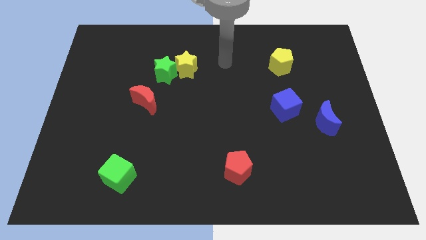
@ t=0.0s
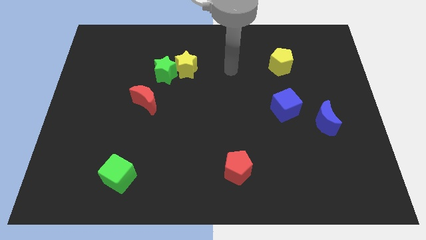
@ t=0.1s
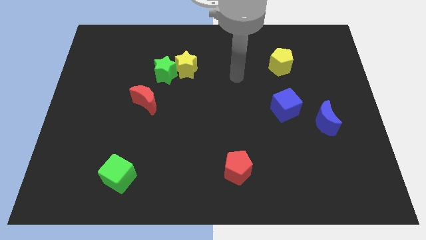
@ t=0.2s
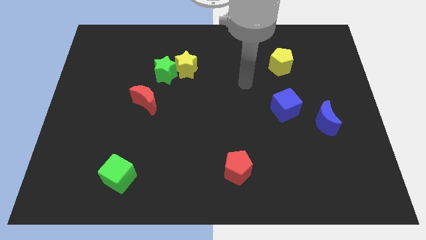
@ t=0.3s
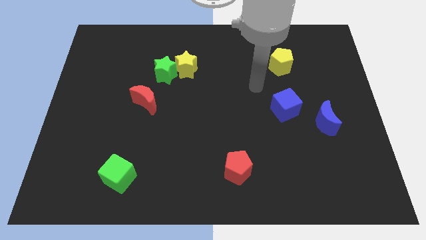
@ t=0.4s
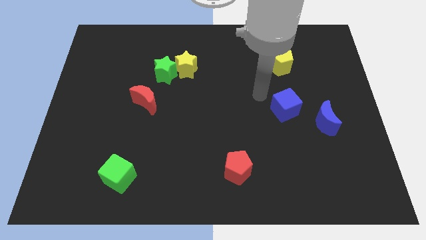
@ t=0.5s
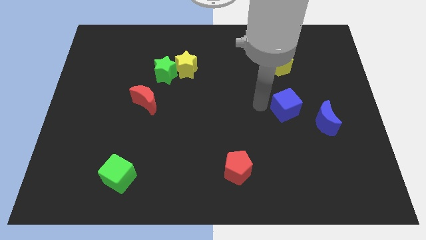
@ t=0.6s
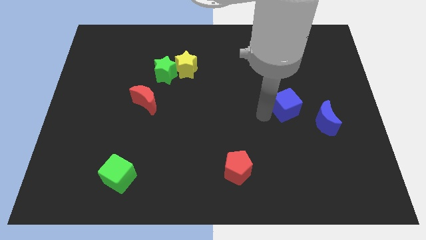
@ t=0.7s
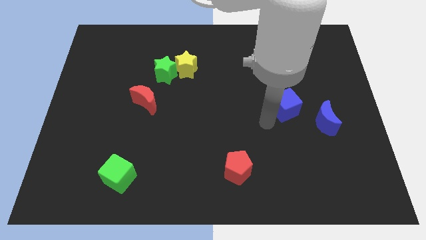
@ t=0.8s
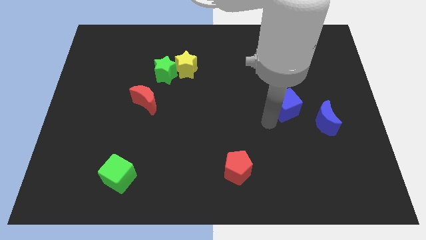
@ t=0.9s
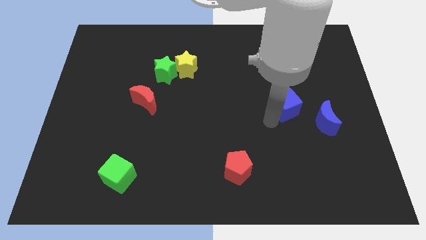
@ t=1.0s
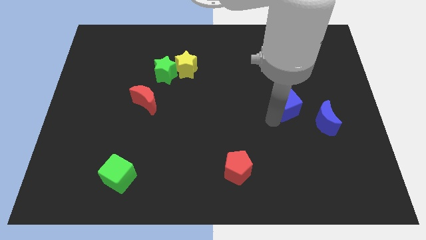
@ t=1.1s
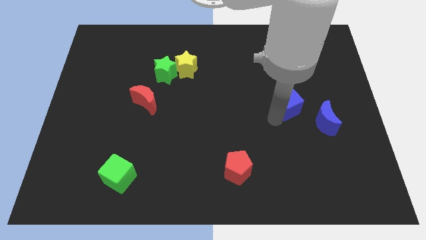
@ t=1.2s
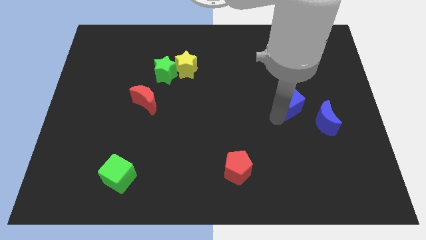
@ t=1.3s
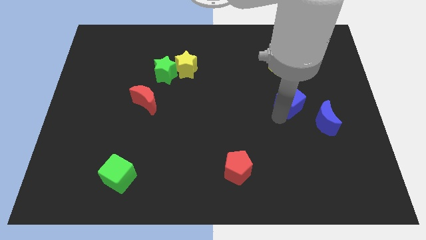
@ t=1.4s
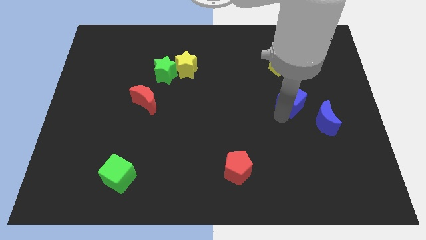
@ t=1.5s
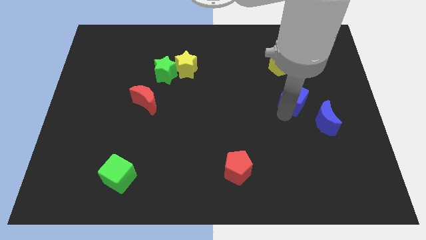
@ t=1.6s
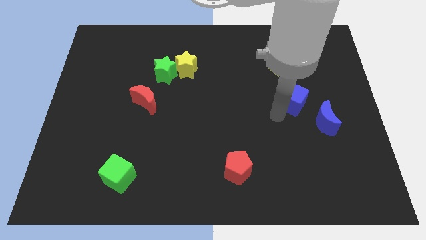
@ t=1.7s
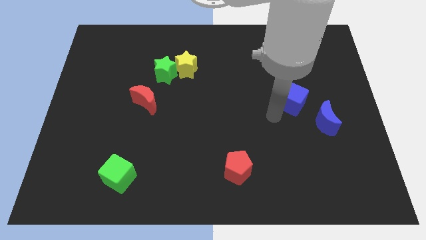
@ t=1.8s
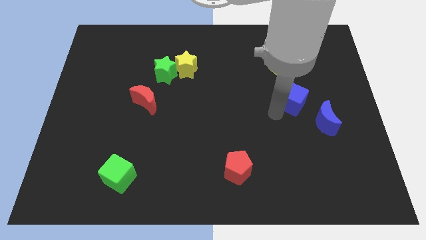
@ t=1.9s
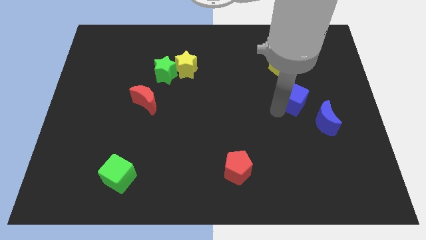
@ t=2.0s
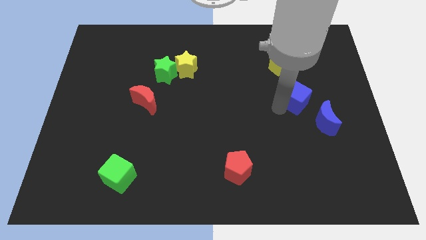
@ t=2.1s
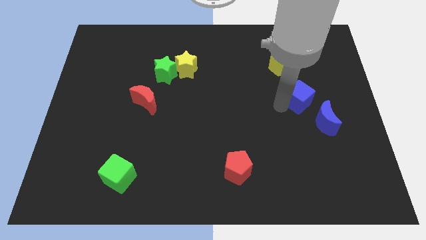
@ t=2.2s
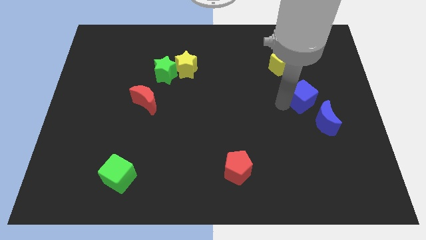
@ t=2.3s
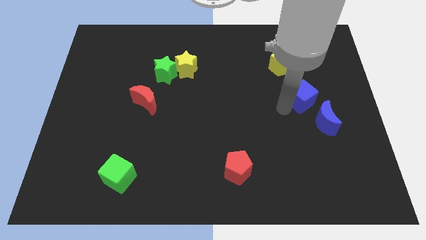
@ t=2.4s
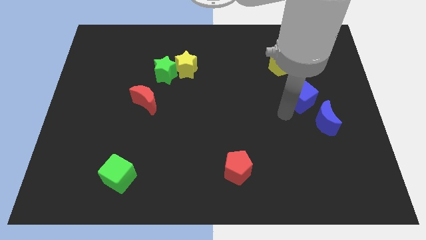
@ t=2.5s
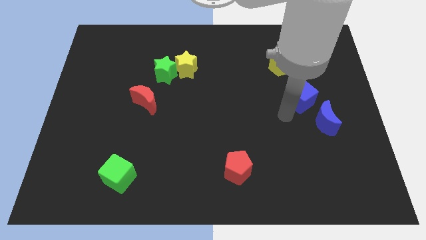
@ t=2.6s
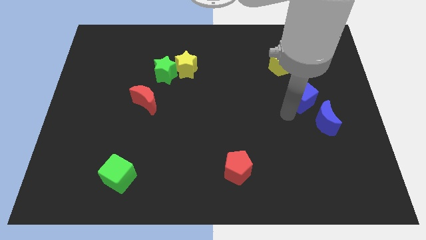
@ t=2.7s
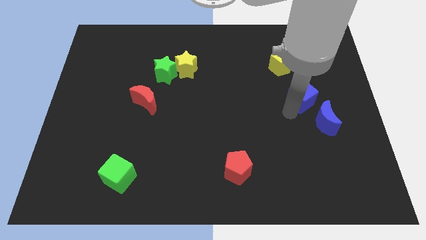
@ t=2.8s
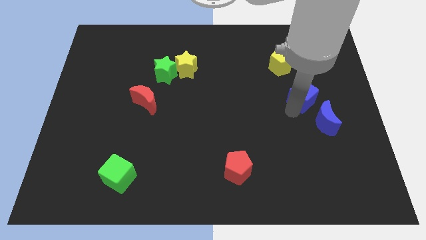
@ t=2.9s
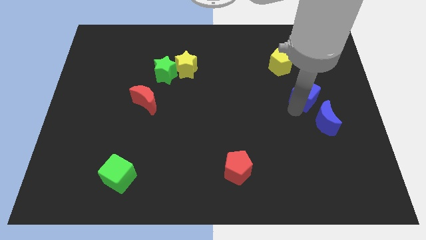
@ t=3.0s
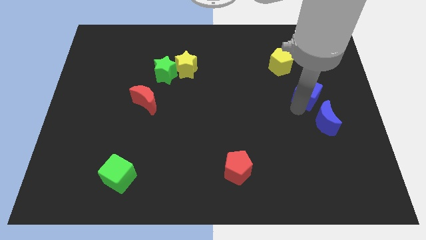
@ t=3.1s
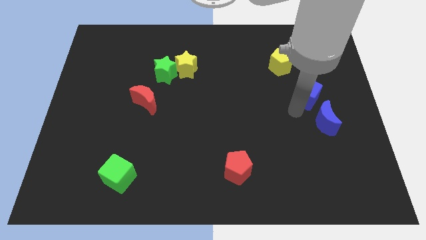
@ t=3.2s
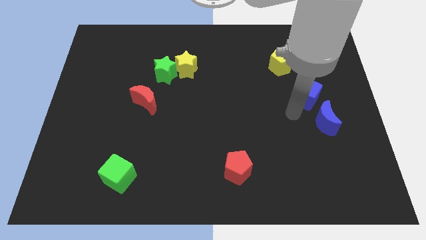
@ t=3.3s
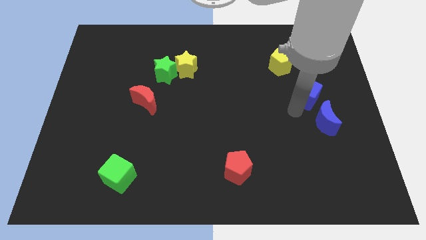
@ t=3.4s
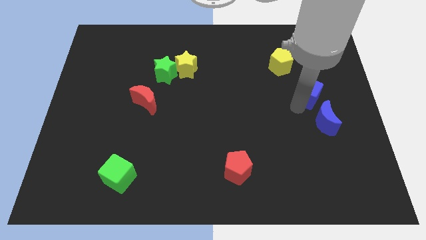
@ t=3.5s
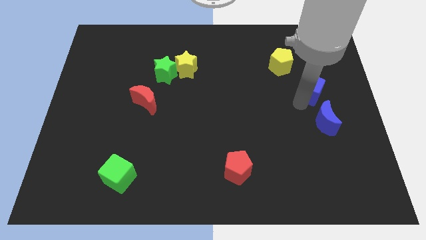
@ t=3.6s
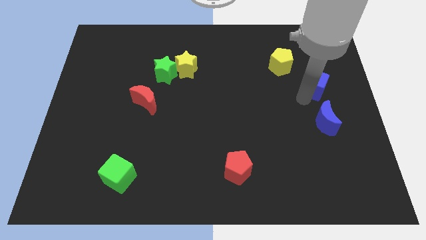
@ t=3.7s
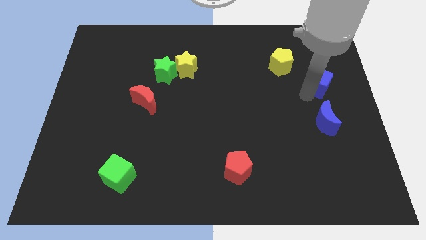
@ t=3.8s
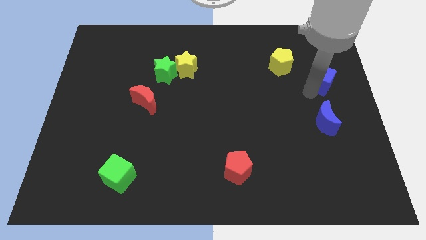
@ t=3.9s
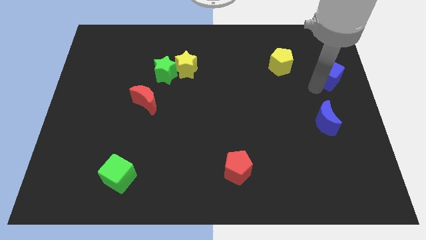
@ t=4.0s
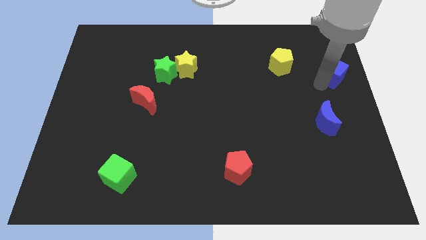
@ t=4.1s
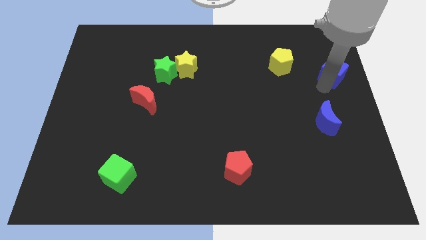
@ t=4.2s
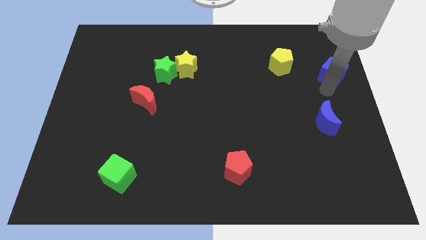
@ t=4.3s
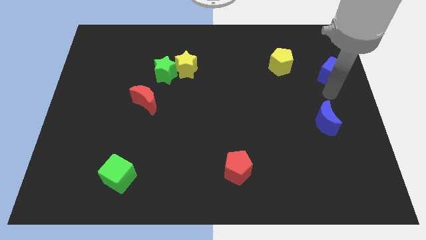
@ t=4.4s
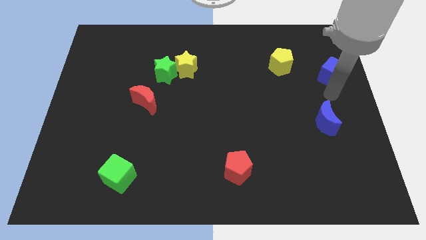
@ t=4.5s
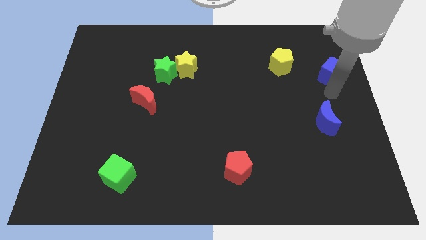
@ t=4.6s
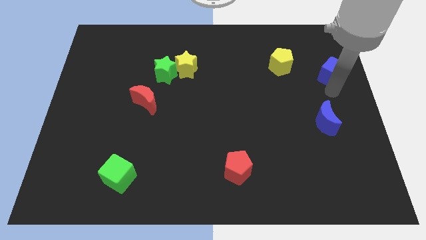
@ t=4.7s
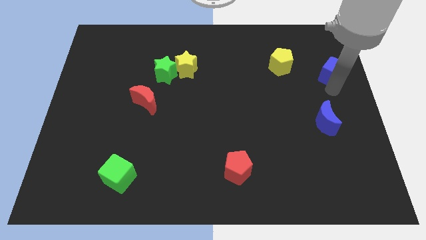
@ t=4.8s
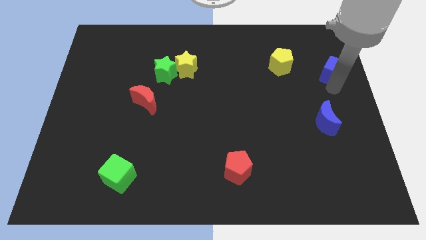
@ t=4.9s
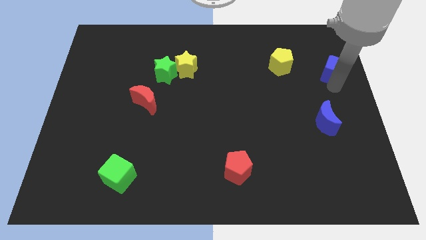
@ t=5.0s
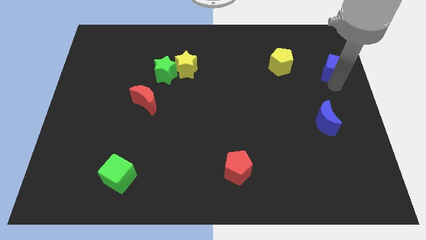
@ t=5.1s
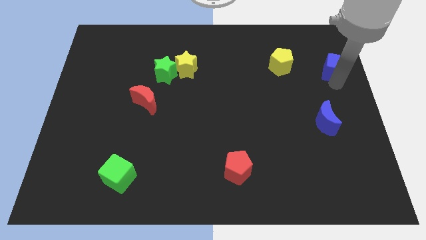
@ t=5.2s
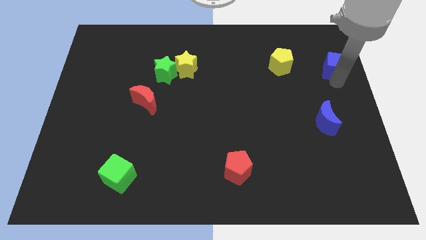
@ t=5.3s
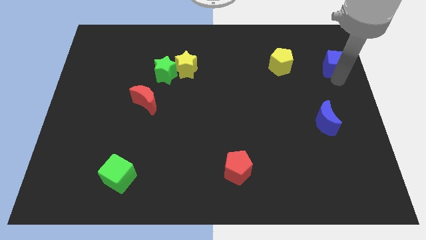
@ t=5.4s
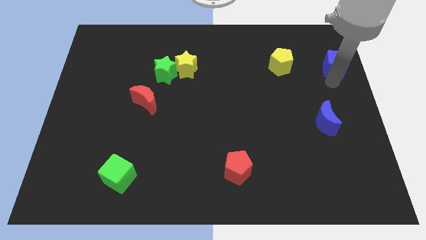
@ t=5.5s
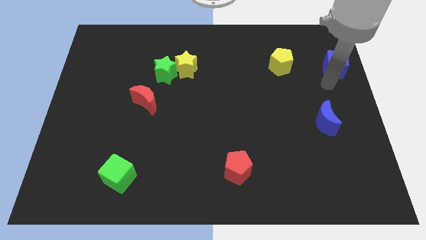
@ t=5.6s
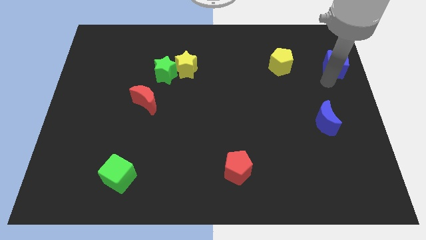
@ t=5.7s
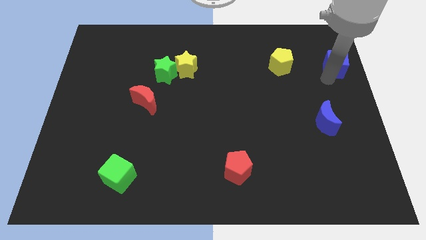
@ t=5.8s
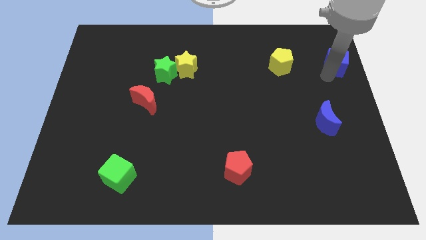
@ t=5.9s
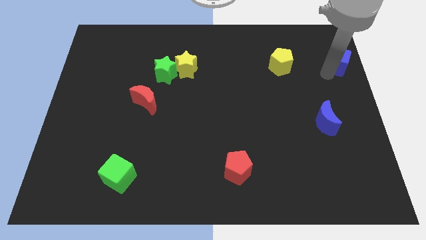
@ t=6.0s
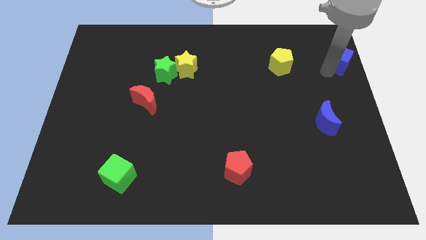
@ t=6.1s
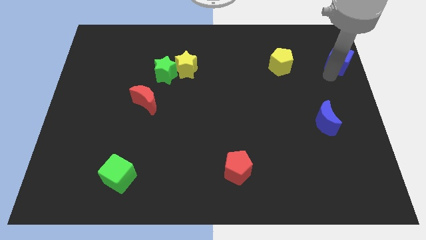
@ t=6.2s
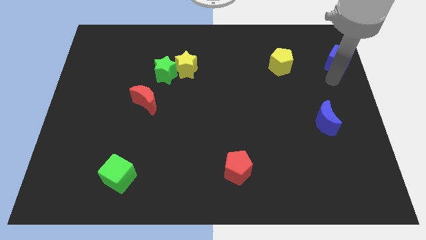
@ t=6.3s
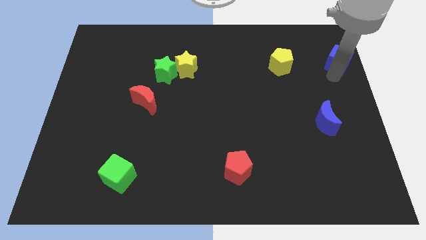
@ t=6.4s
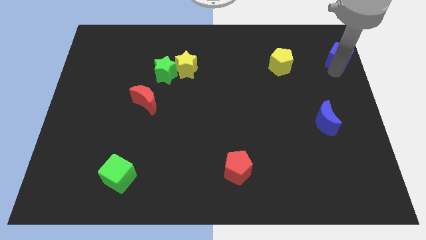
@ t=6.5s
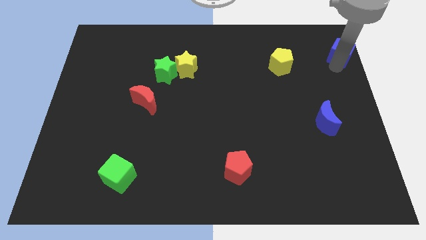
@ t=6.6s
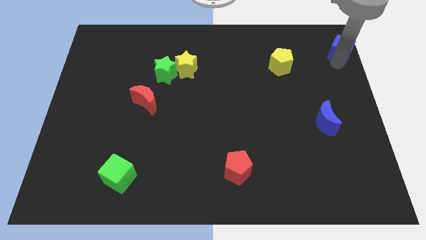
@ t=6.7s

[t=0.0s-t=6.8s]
push the blue cube to the upper right corner
